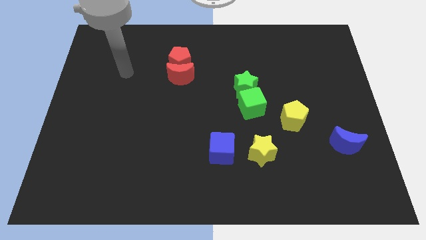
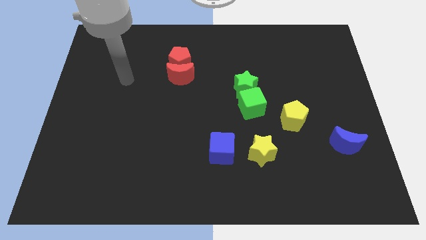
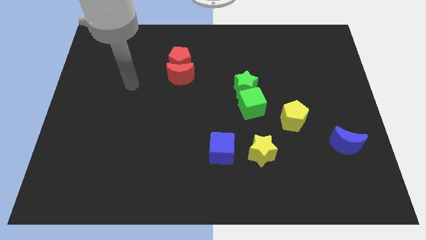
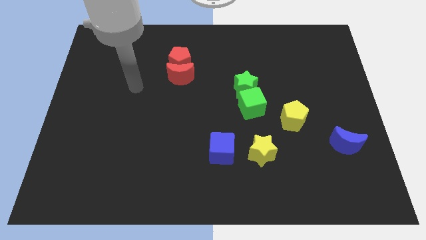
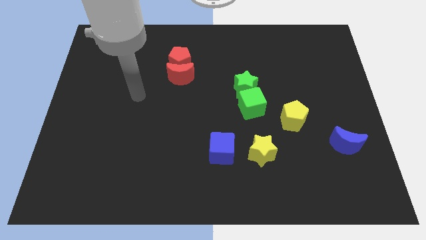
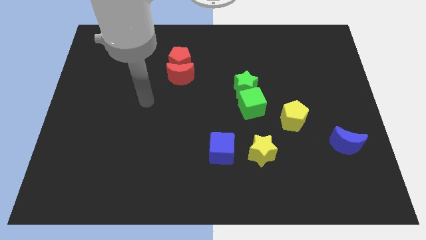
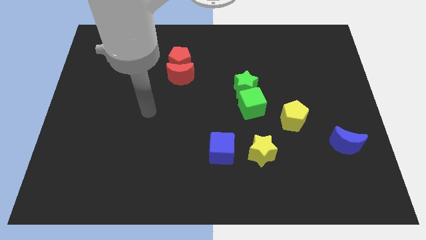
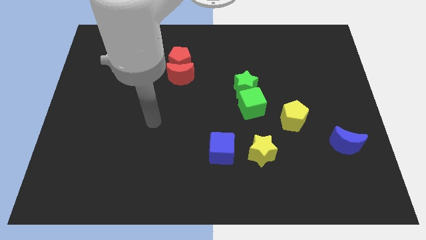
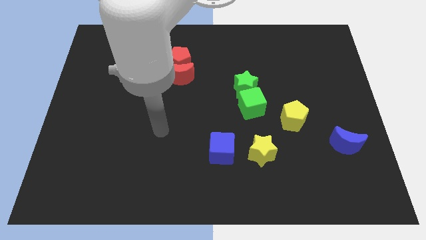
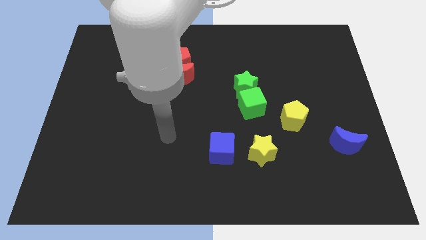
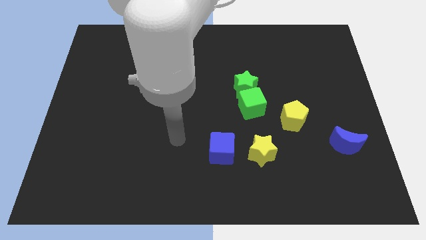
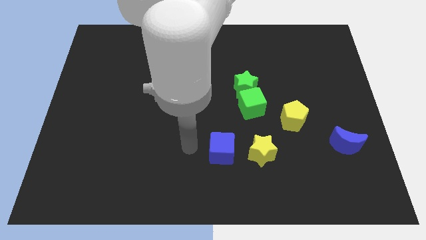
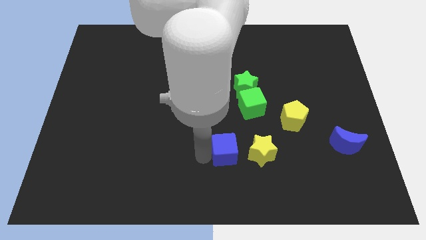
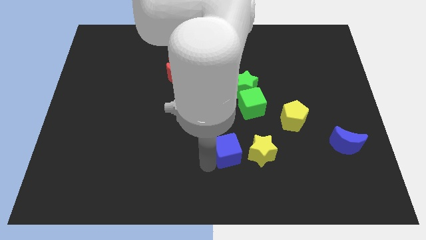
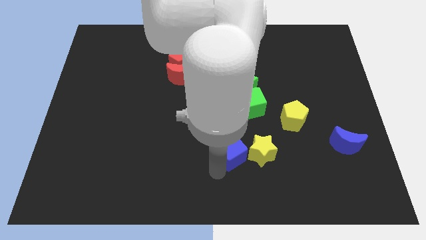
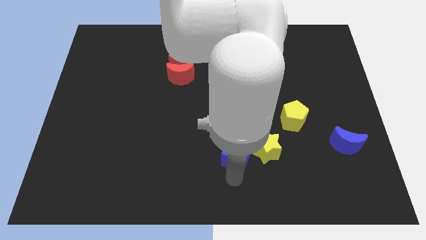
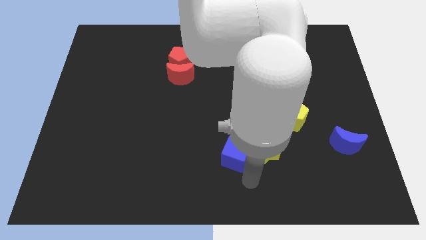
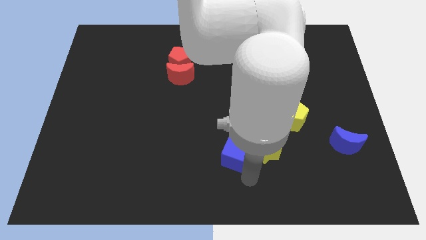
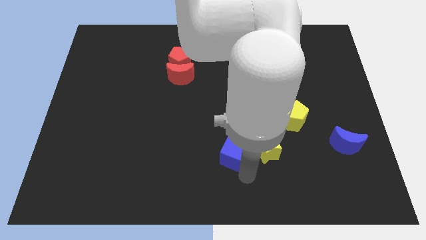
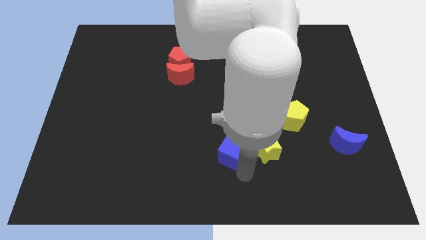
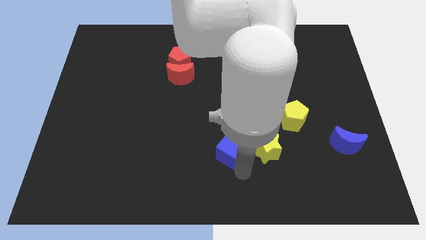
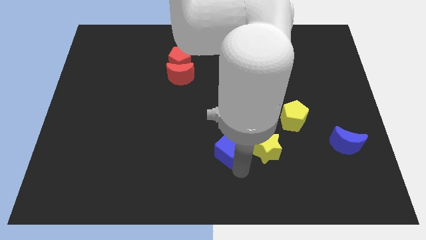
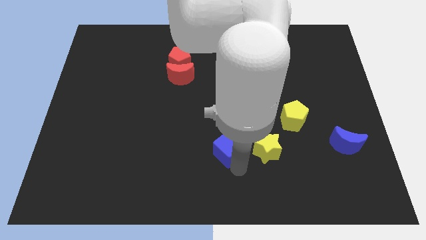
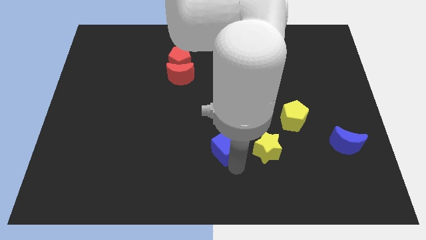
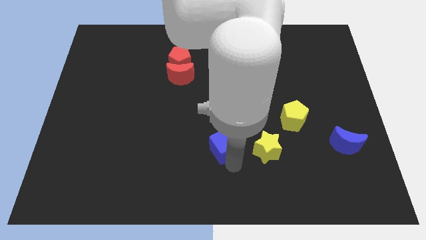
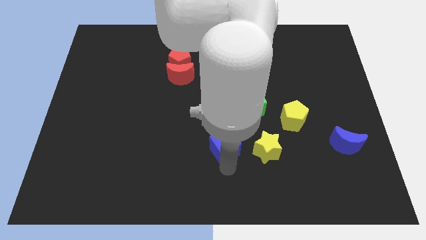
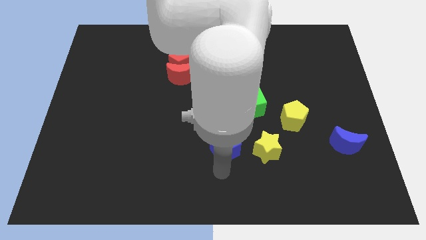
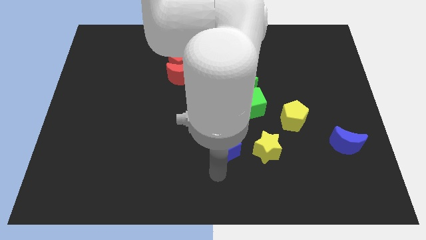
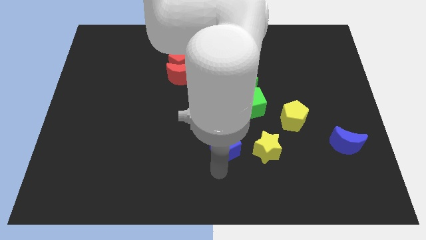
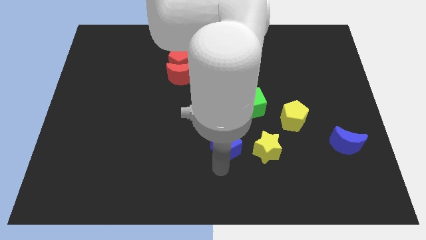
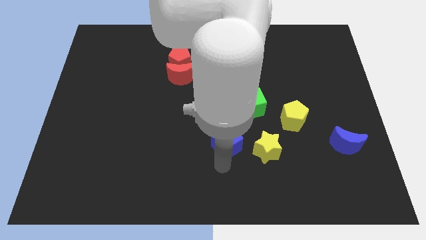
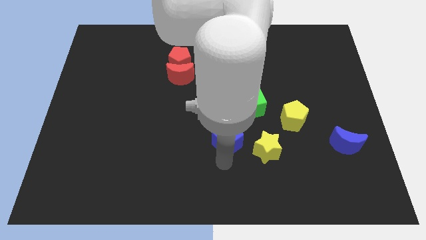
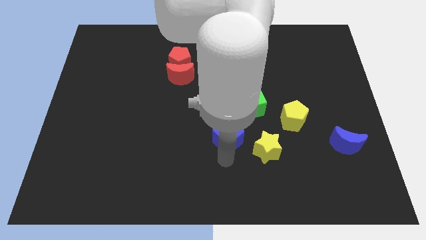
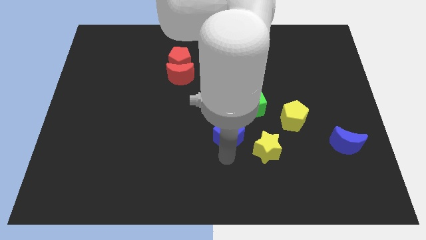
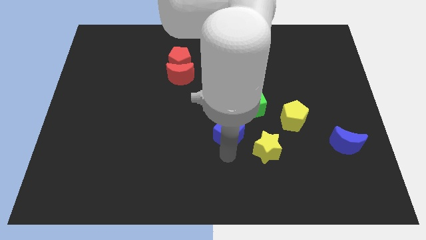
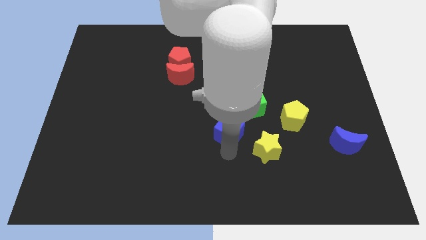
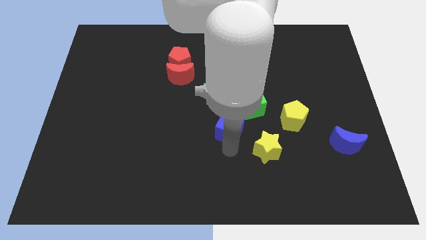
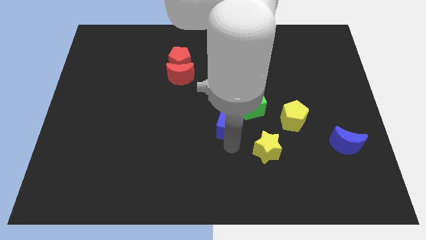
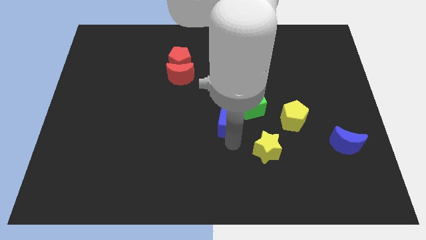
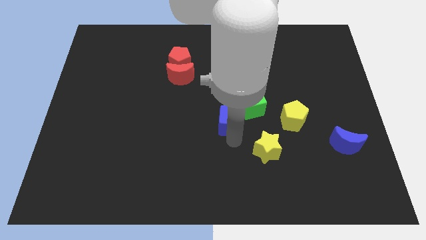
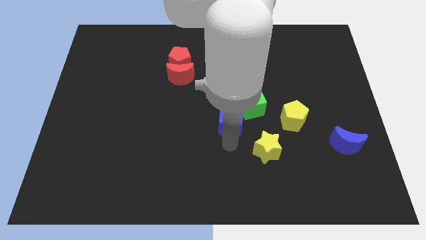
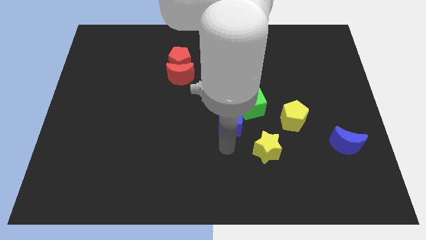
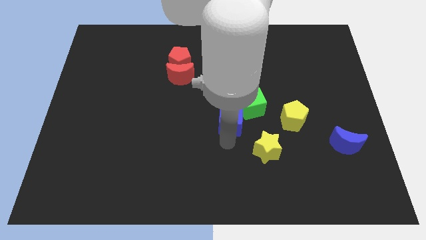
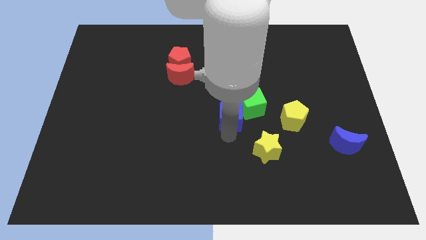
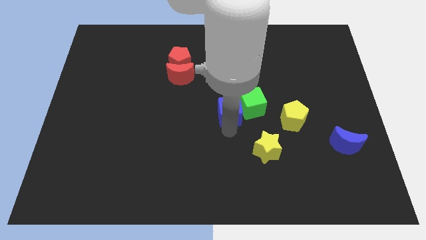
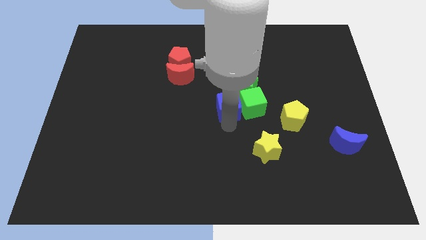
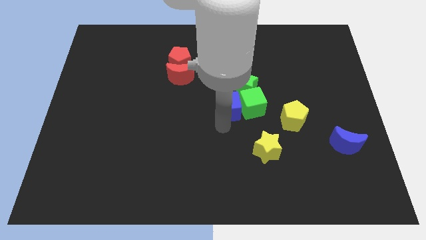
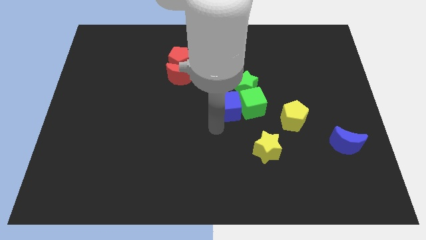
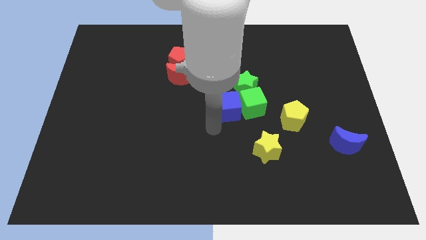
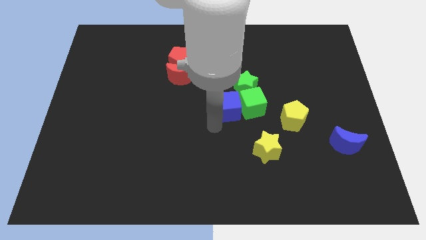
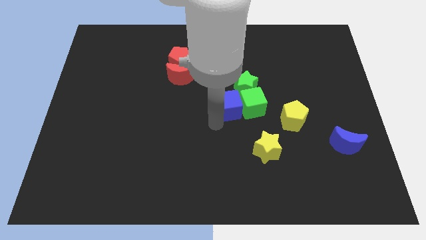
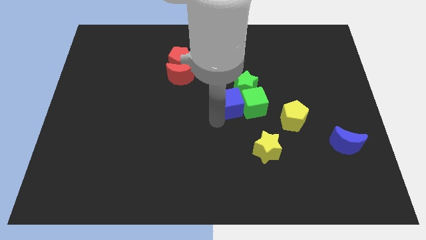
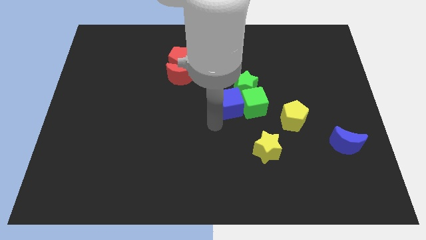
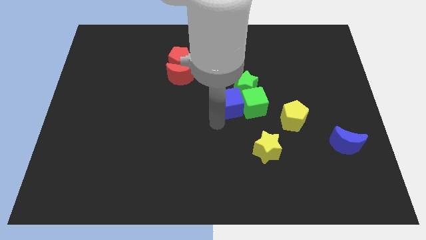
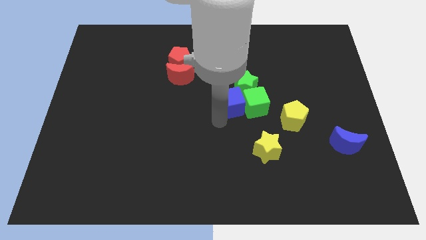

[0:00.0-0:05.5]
slide the blue cube next to the green star

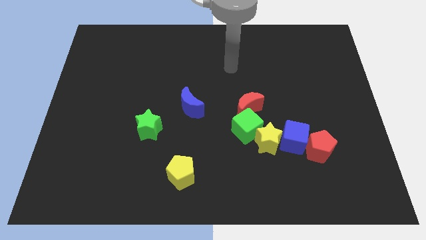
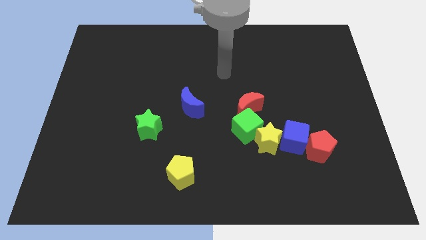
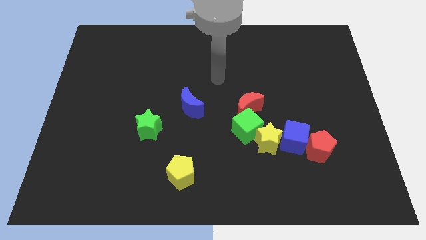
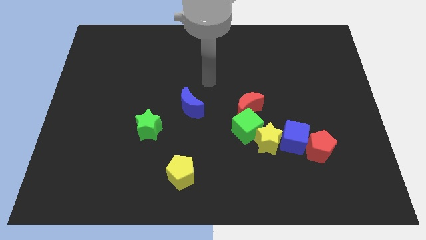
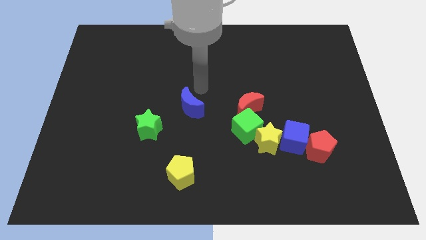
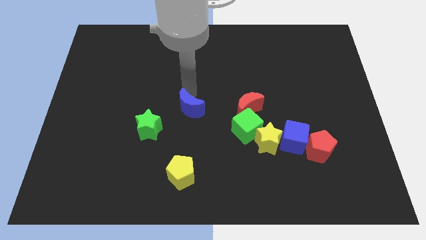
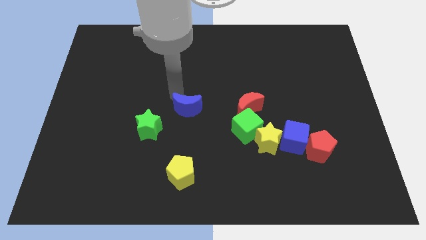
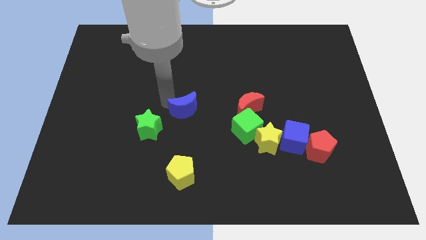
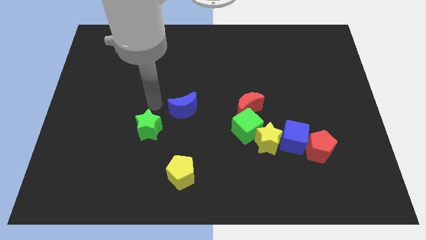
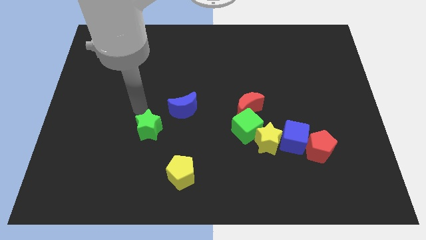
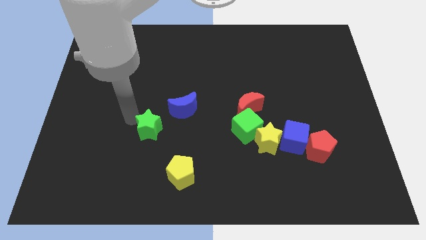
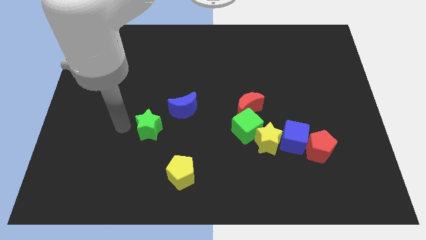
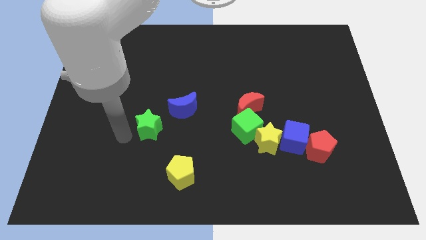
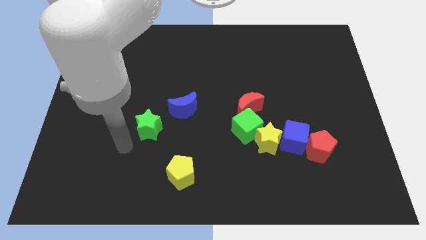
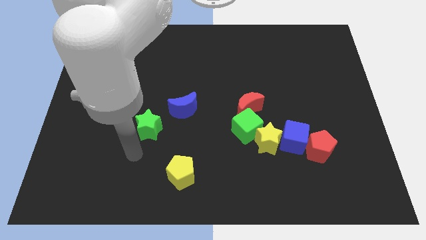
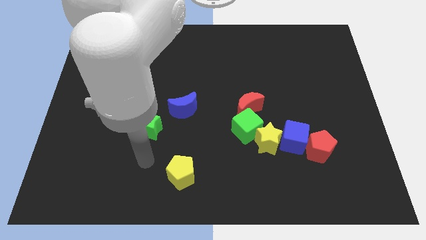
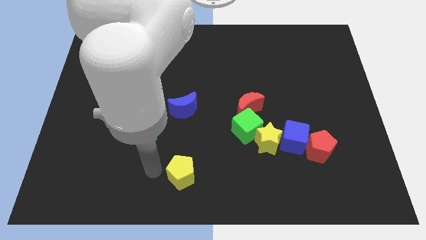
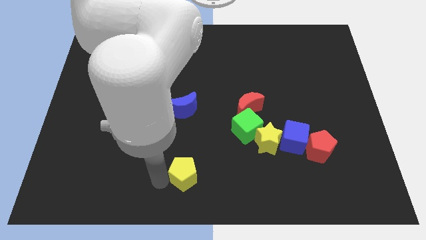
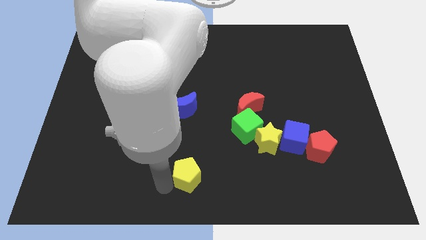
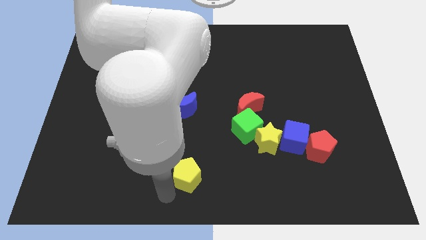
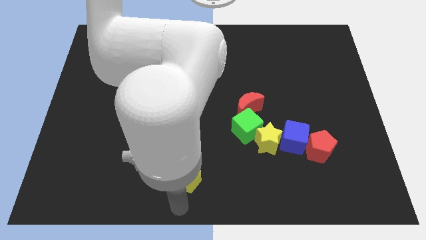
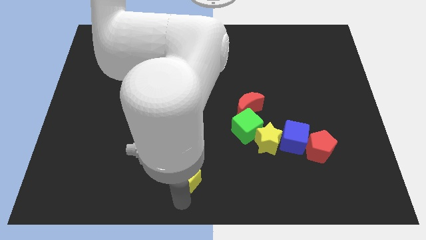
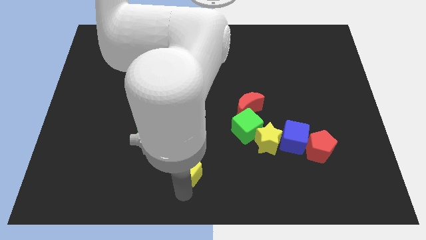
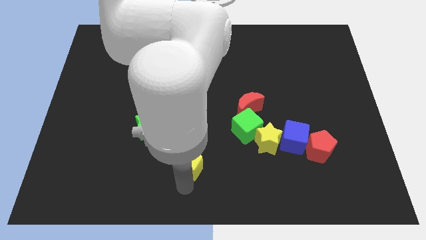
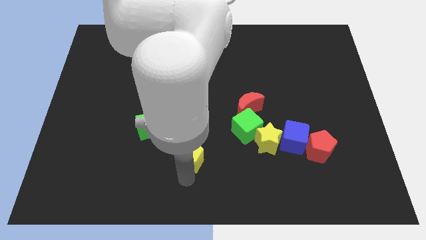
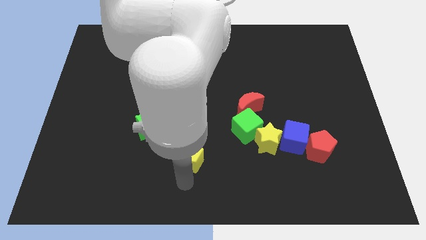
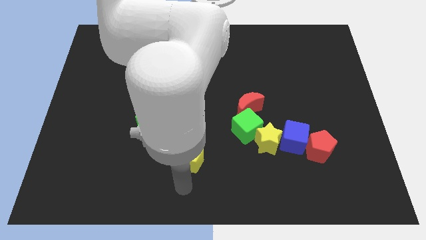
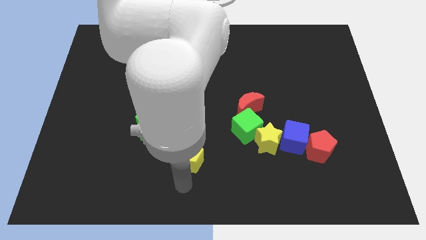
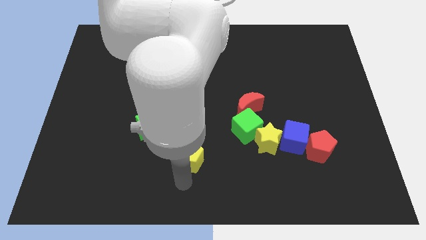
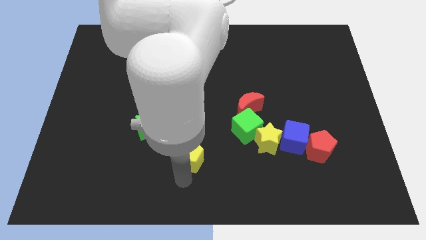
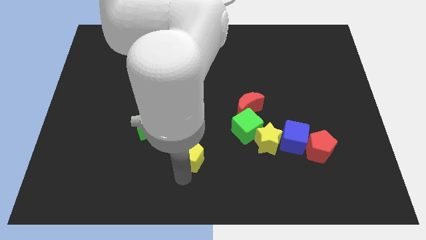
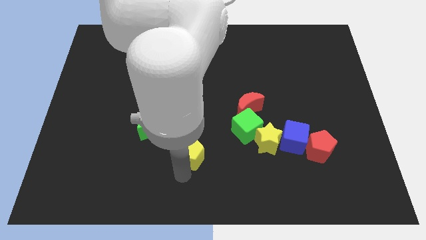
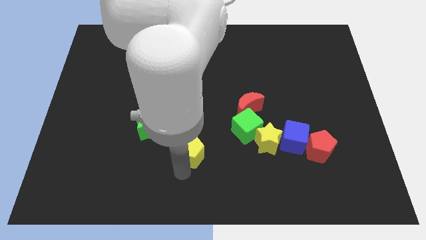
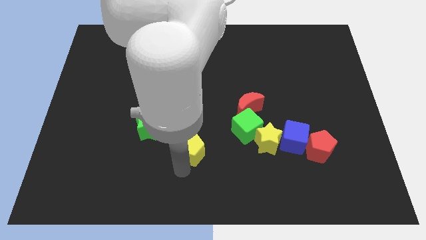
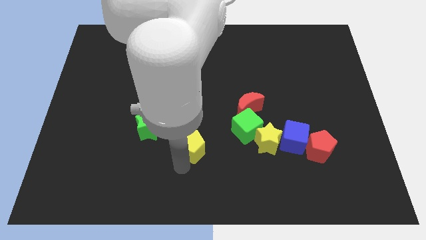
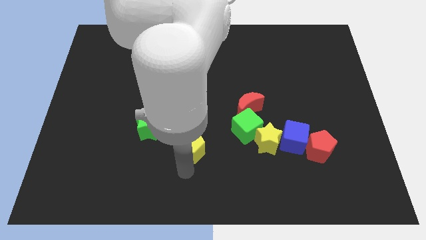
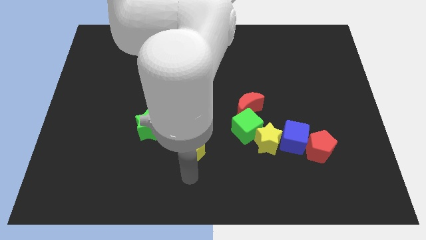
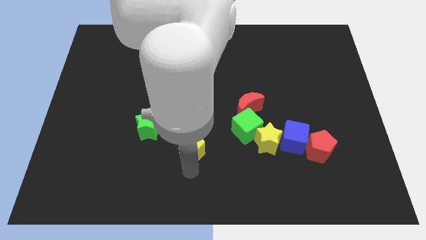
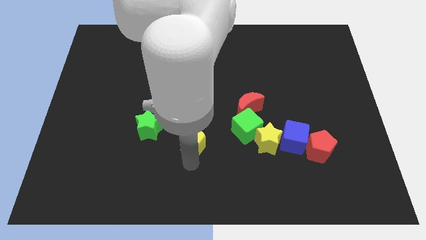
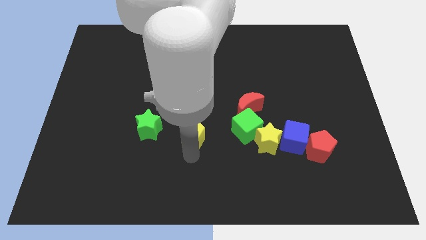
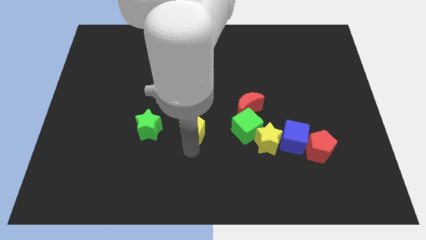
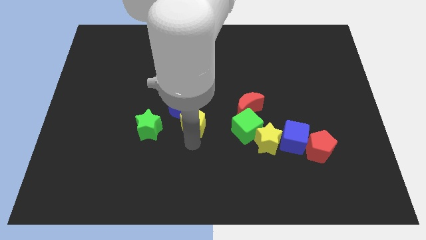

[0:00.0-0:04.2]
push the yellow pentagon close to the blue moon
